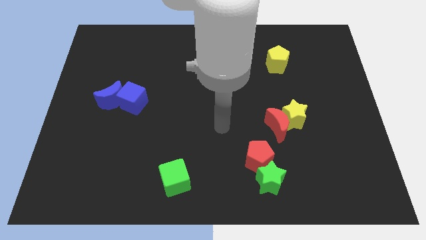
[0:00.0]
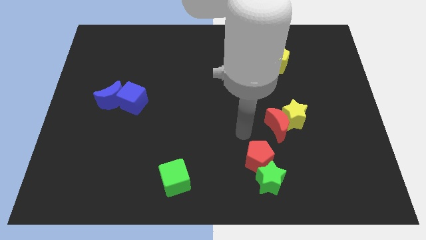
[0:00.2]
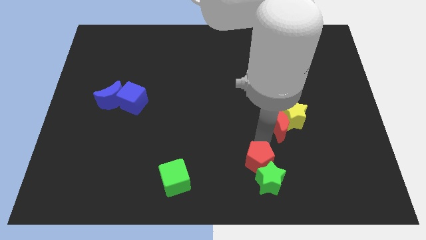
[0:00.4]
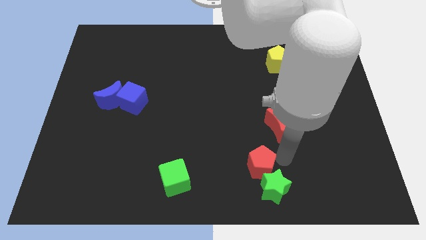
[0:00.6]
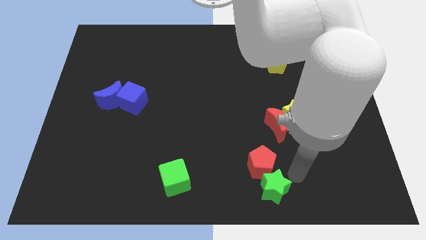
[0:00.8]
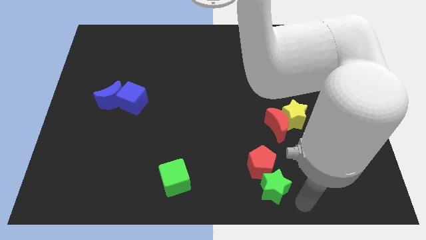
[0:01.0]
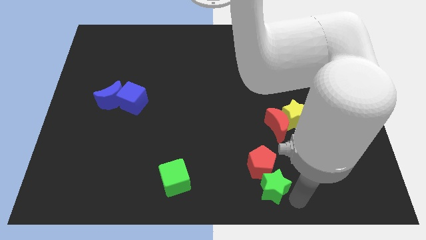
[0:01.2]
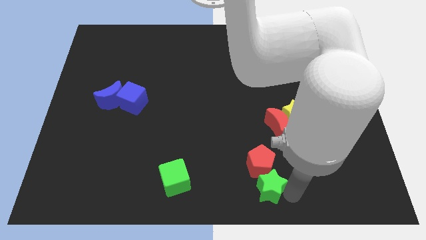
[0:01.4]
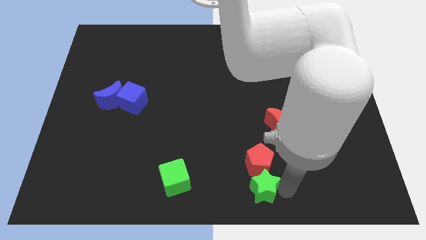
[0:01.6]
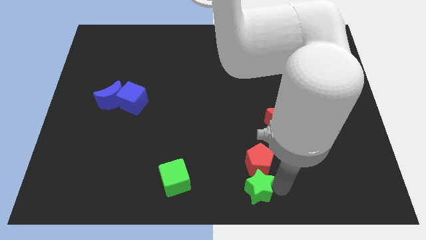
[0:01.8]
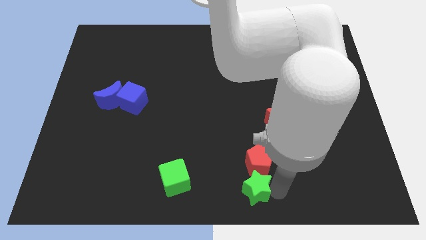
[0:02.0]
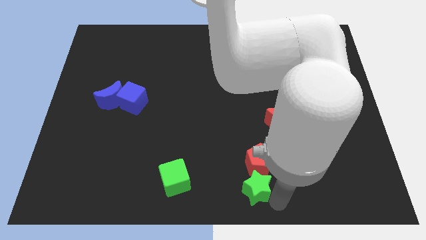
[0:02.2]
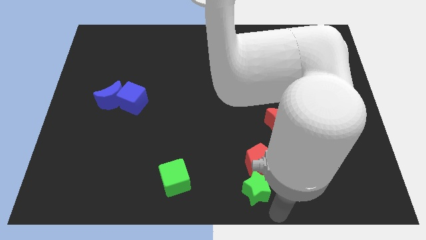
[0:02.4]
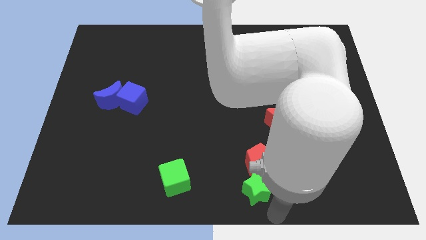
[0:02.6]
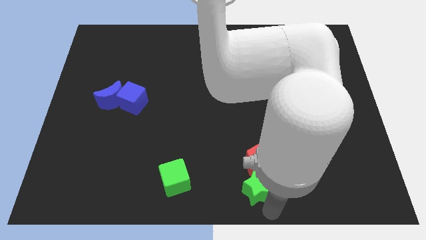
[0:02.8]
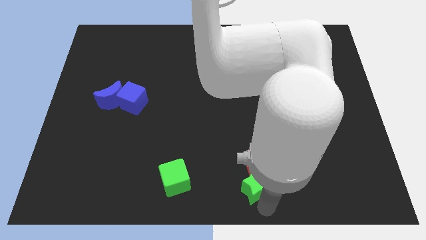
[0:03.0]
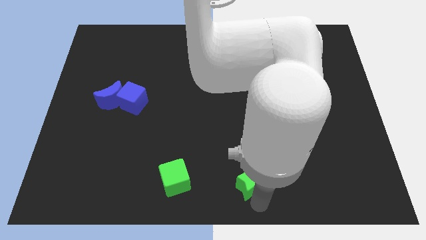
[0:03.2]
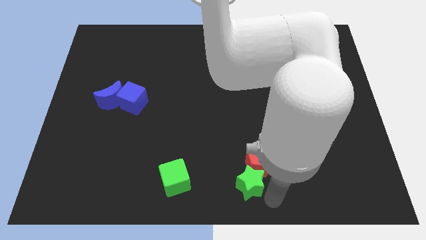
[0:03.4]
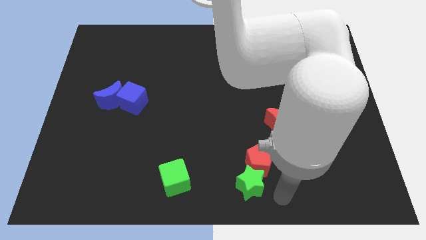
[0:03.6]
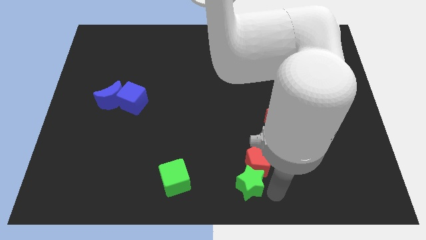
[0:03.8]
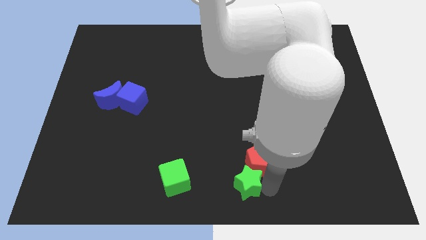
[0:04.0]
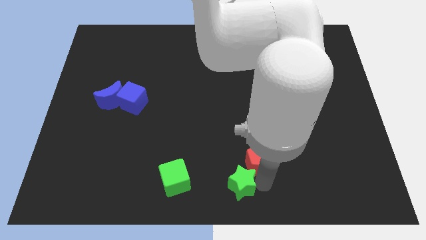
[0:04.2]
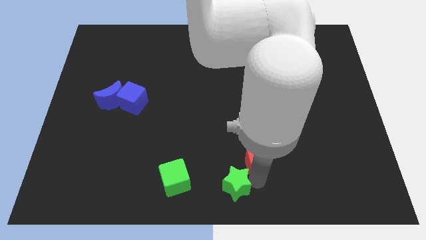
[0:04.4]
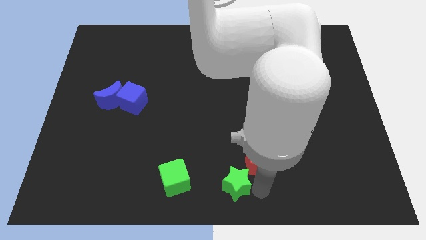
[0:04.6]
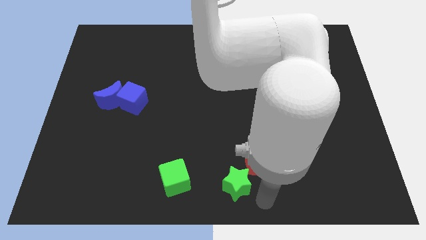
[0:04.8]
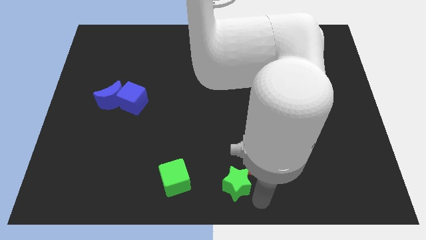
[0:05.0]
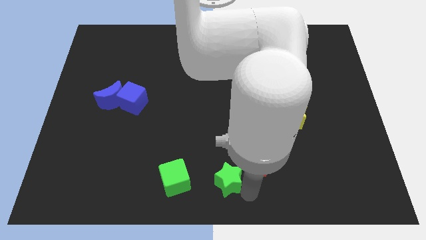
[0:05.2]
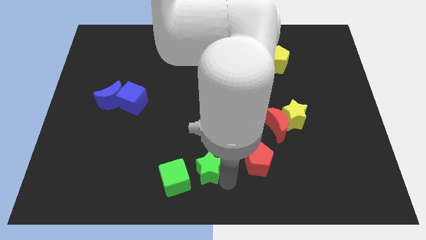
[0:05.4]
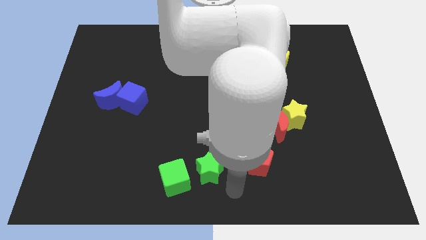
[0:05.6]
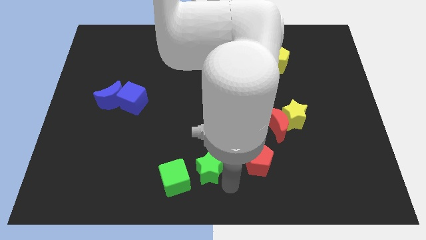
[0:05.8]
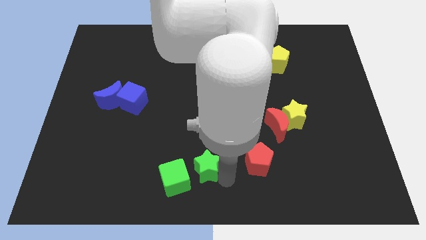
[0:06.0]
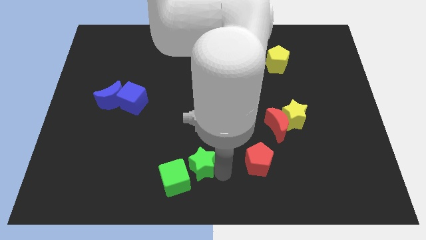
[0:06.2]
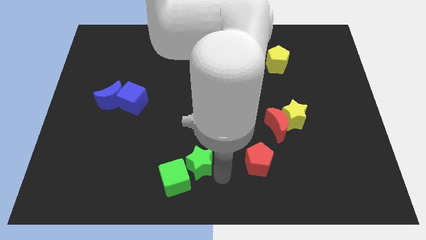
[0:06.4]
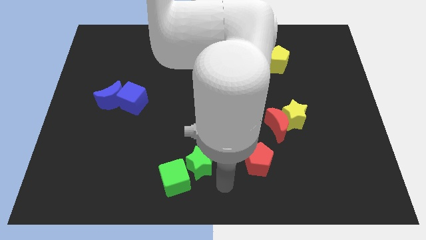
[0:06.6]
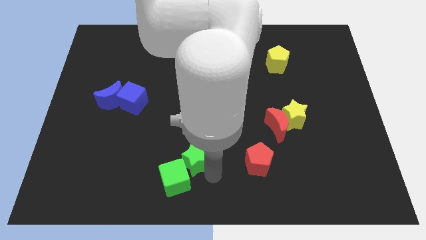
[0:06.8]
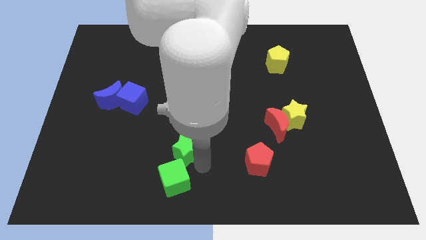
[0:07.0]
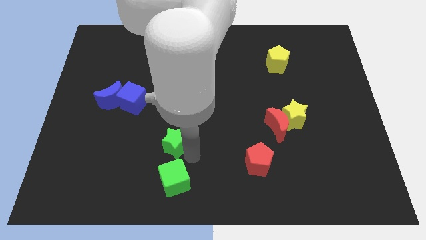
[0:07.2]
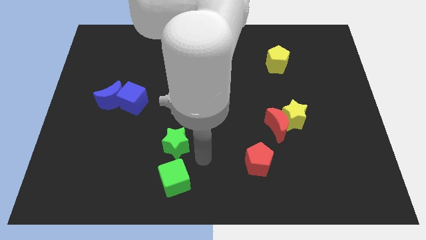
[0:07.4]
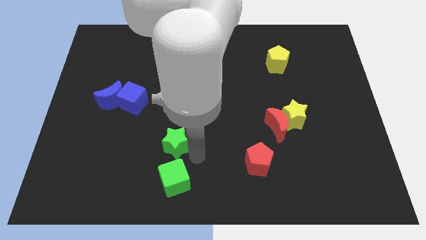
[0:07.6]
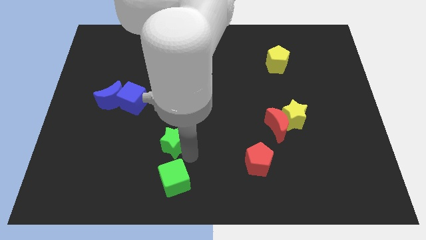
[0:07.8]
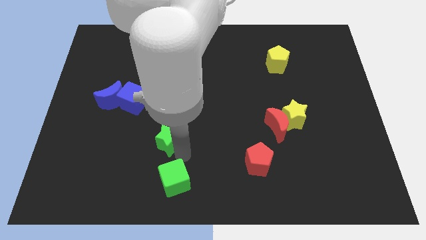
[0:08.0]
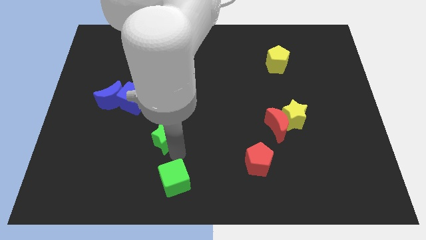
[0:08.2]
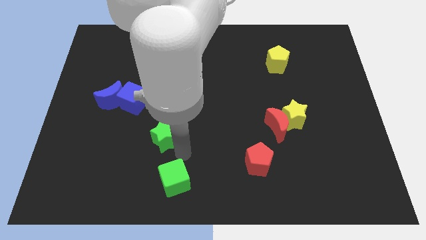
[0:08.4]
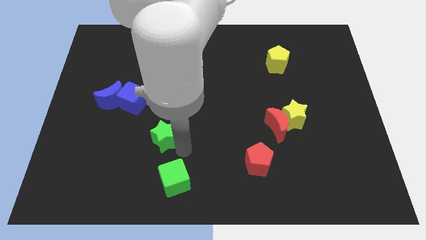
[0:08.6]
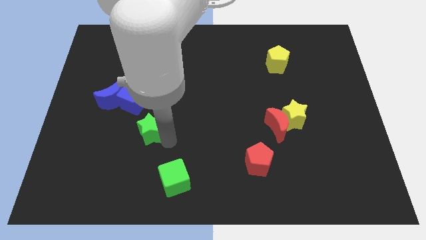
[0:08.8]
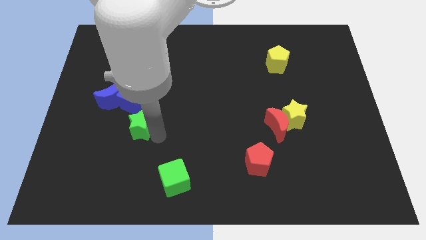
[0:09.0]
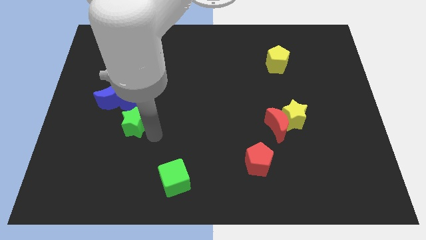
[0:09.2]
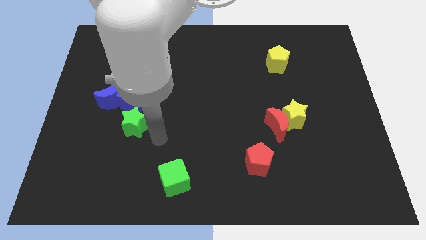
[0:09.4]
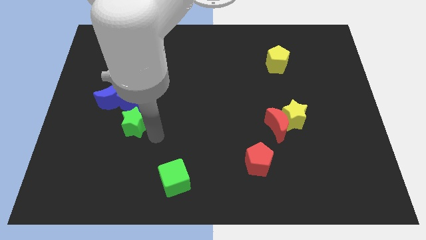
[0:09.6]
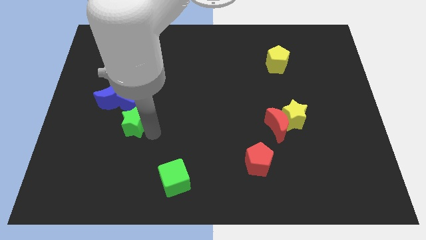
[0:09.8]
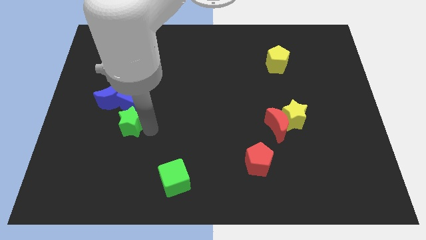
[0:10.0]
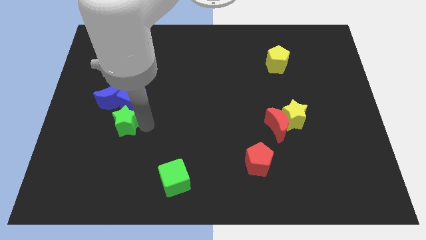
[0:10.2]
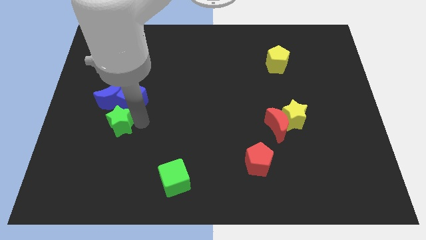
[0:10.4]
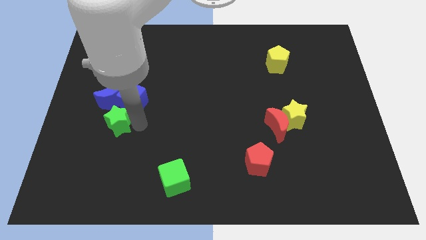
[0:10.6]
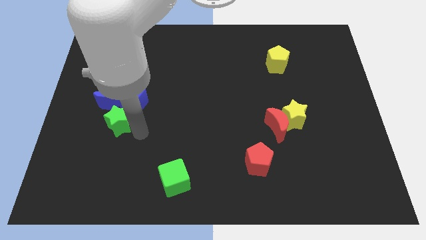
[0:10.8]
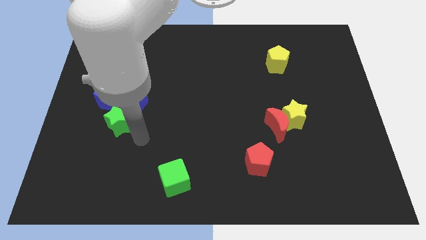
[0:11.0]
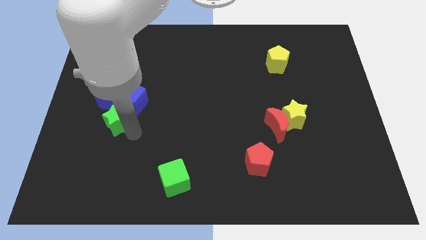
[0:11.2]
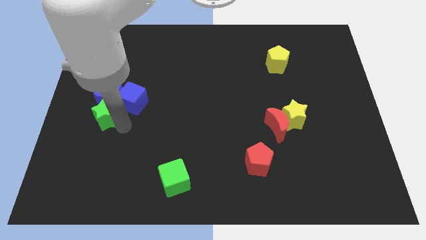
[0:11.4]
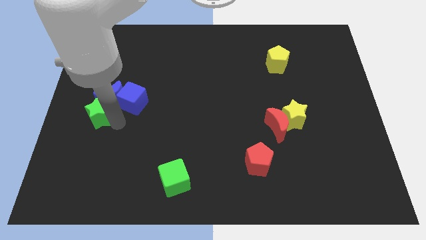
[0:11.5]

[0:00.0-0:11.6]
slide the green star to the center left

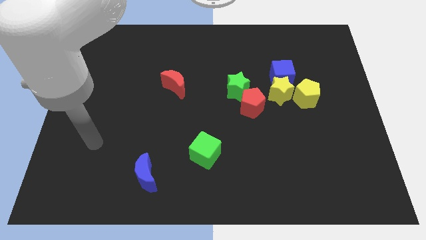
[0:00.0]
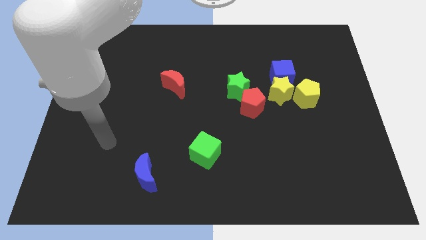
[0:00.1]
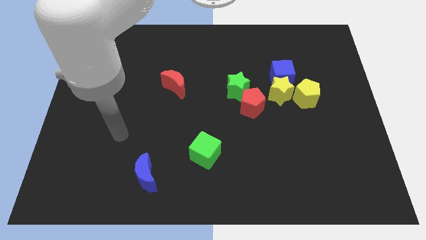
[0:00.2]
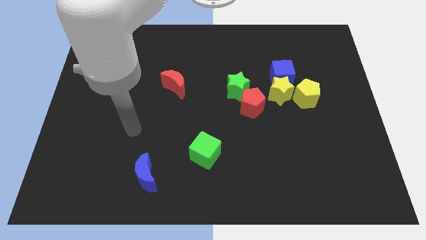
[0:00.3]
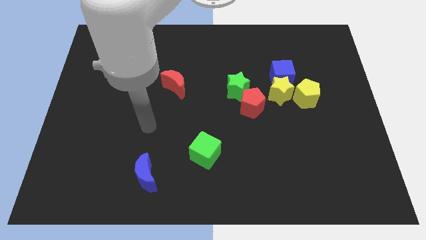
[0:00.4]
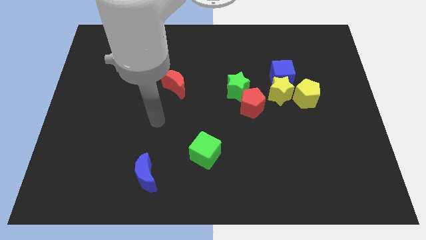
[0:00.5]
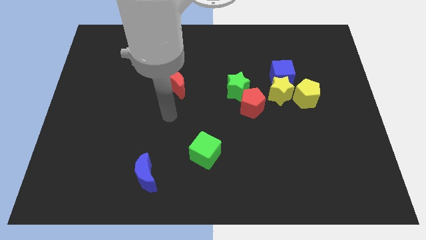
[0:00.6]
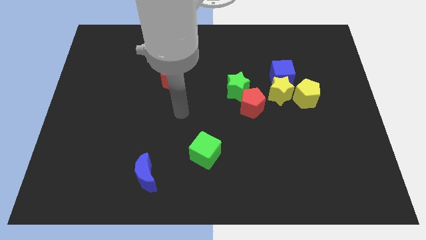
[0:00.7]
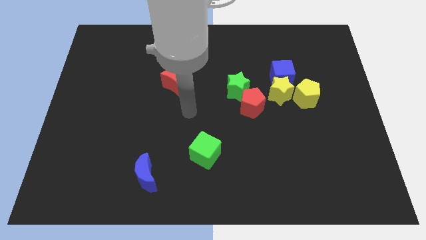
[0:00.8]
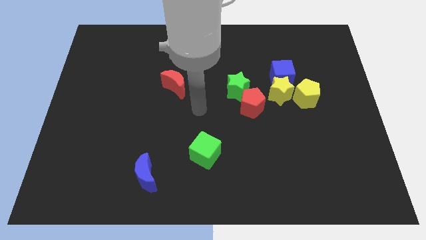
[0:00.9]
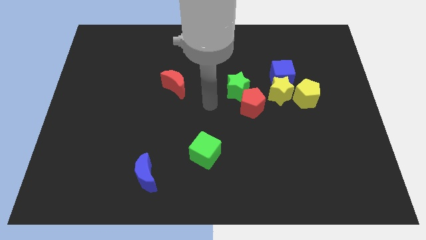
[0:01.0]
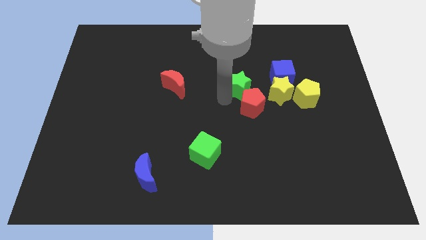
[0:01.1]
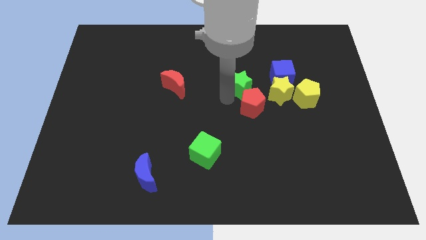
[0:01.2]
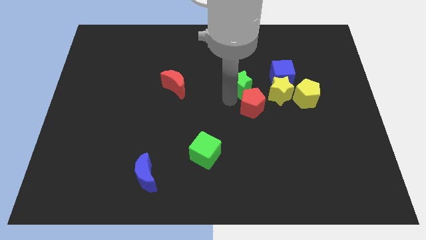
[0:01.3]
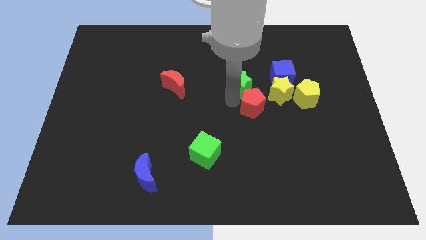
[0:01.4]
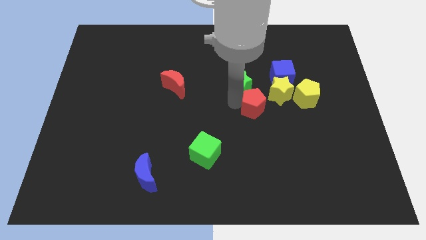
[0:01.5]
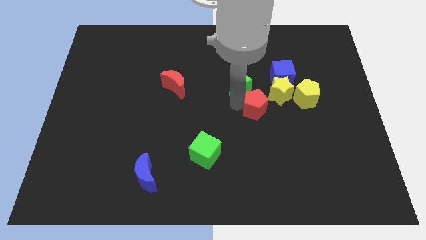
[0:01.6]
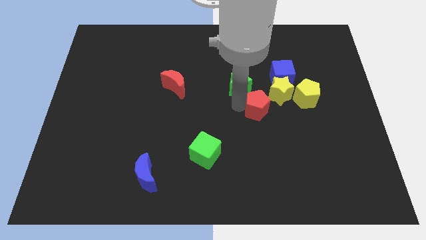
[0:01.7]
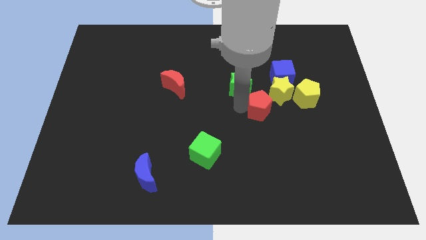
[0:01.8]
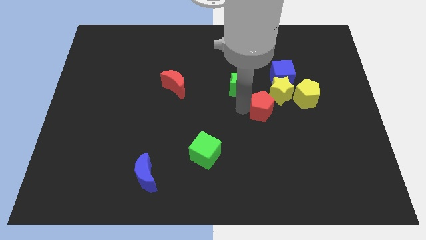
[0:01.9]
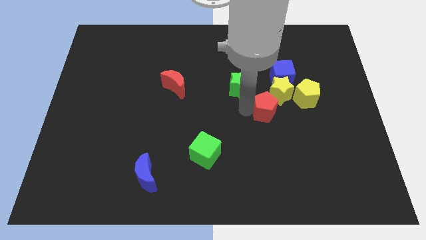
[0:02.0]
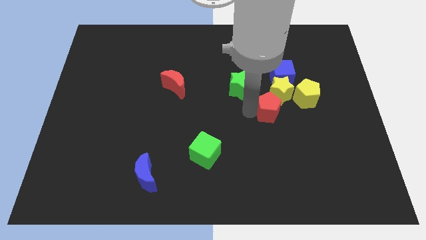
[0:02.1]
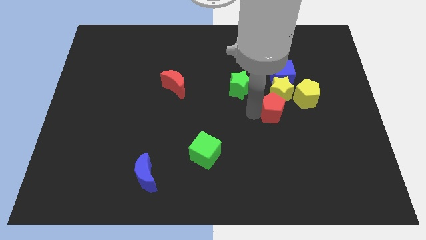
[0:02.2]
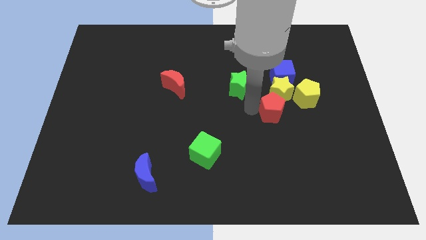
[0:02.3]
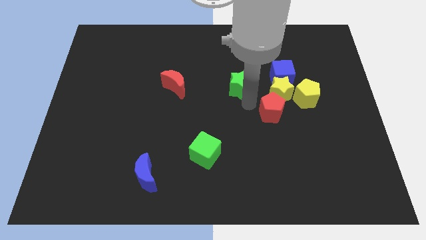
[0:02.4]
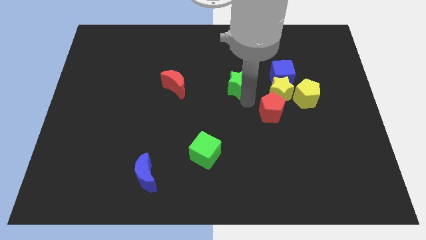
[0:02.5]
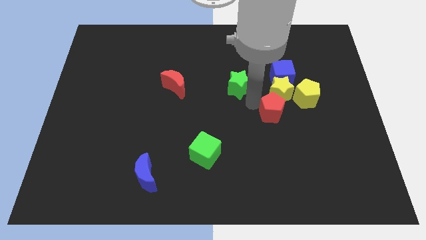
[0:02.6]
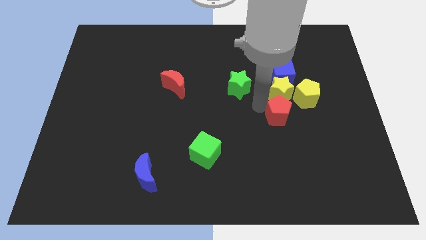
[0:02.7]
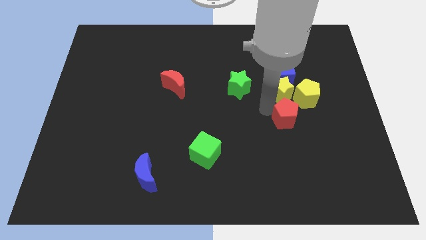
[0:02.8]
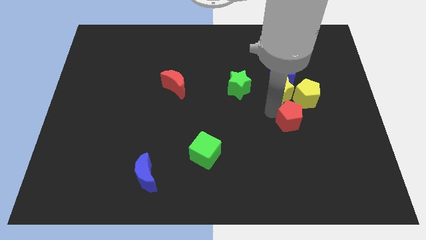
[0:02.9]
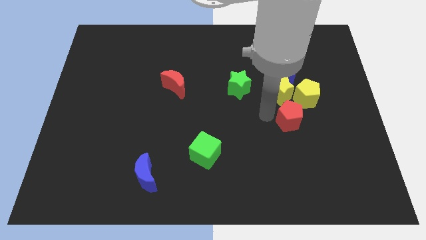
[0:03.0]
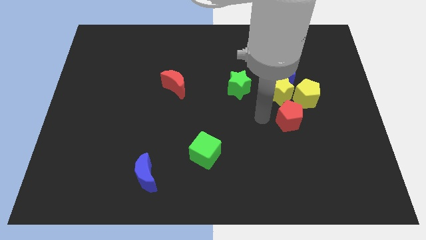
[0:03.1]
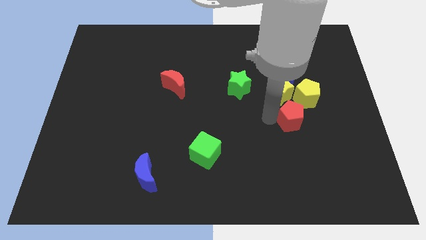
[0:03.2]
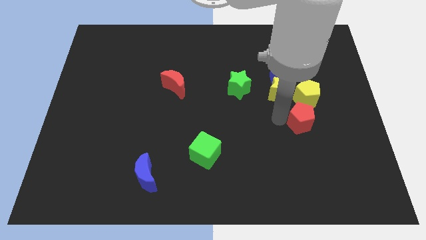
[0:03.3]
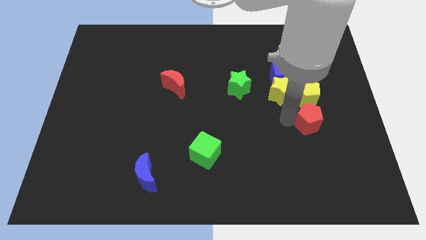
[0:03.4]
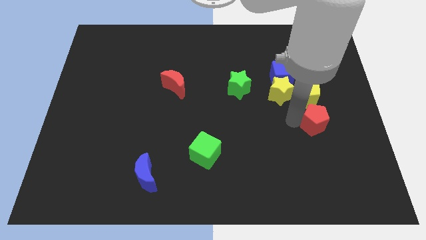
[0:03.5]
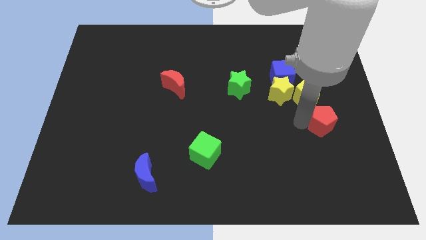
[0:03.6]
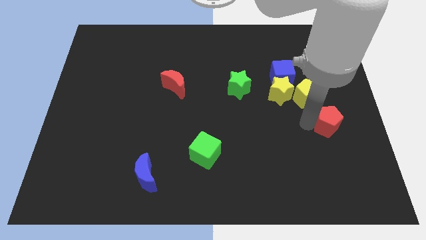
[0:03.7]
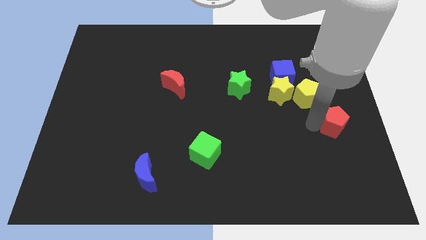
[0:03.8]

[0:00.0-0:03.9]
push the red pentagon to the right side
